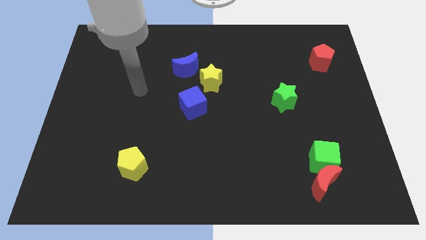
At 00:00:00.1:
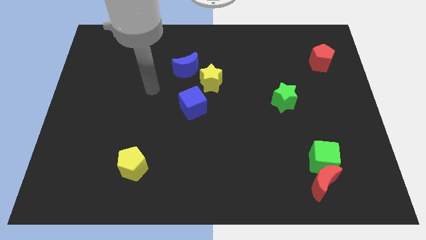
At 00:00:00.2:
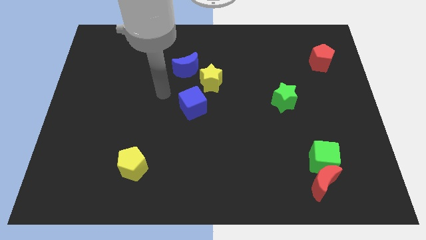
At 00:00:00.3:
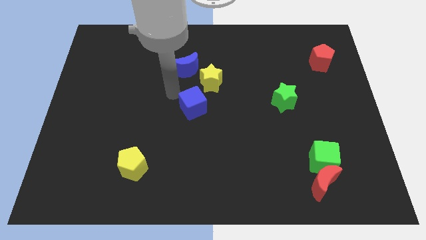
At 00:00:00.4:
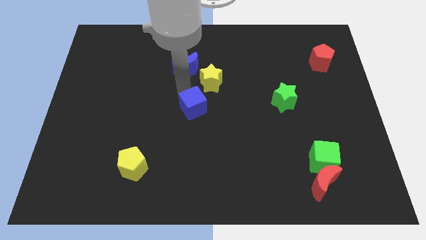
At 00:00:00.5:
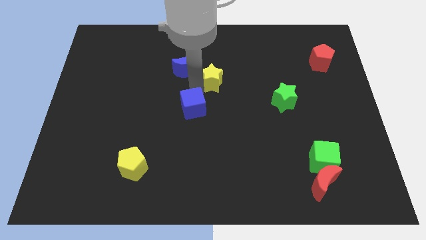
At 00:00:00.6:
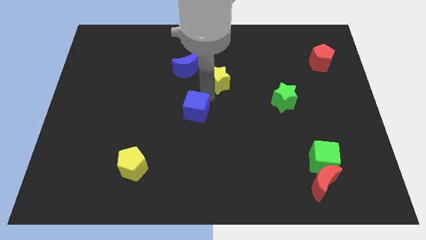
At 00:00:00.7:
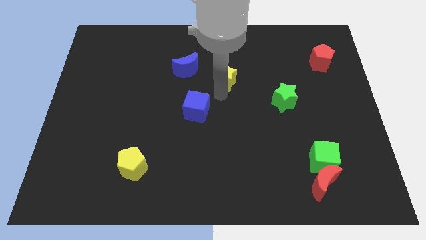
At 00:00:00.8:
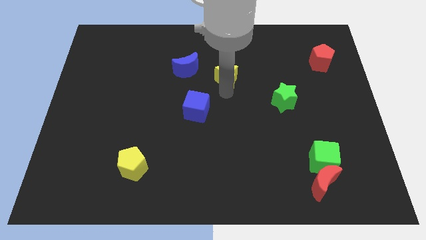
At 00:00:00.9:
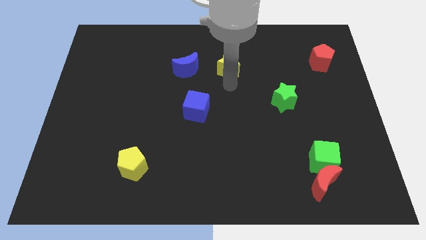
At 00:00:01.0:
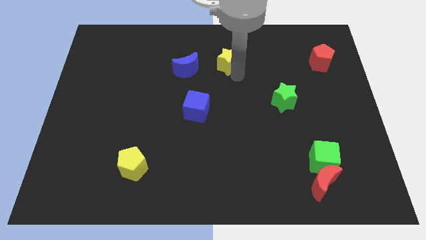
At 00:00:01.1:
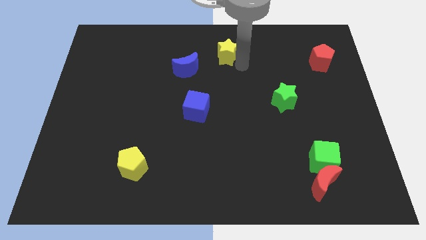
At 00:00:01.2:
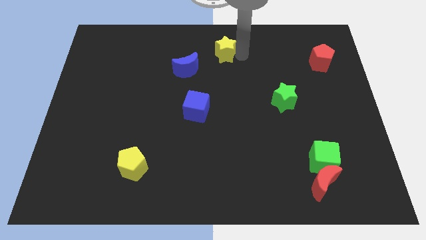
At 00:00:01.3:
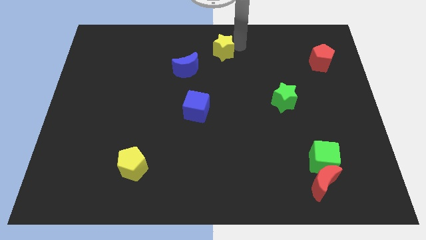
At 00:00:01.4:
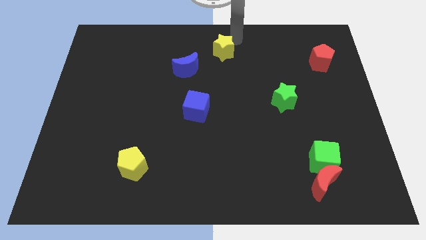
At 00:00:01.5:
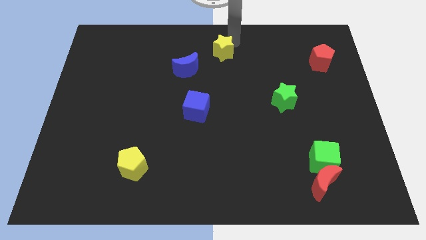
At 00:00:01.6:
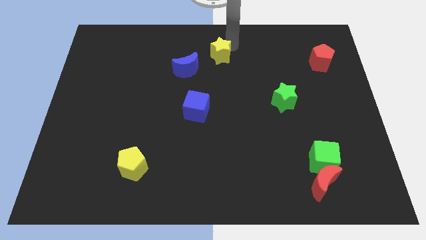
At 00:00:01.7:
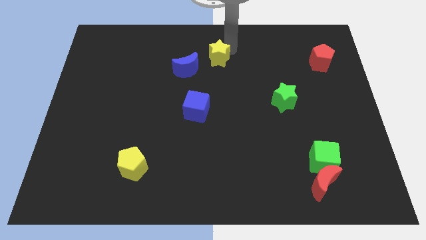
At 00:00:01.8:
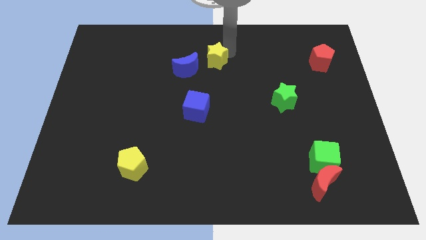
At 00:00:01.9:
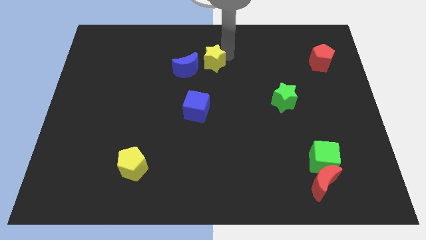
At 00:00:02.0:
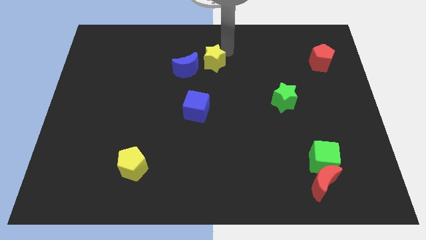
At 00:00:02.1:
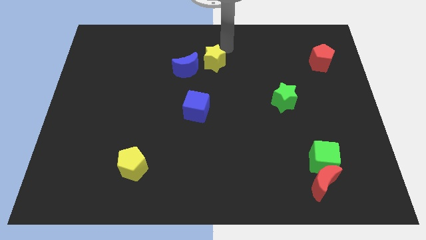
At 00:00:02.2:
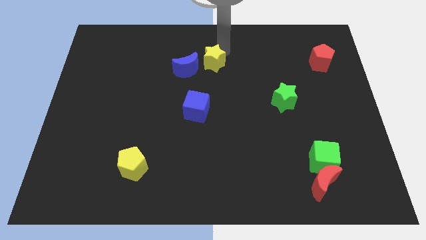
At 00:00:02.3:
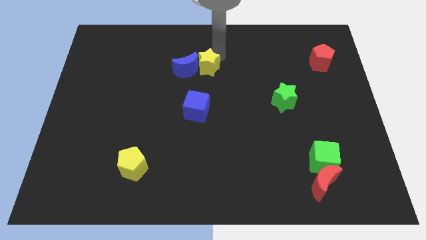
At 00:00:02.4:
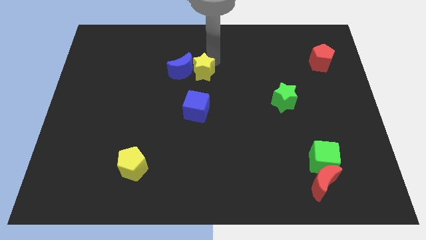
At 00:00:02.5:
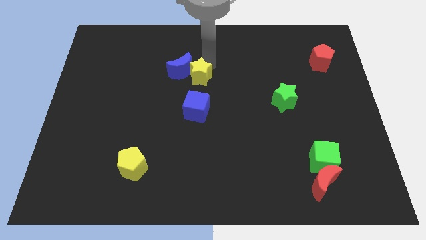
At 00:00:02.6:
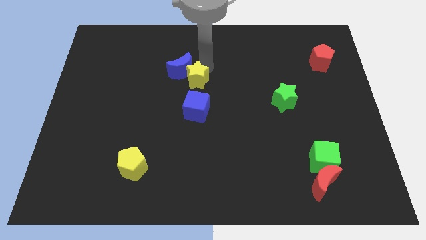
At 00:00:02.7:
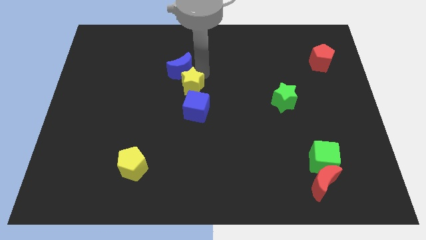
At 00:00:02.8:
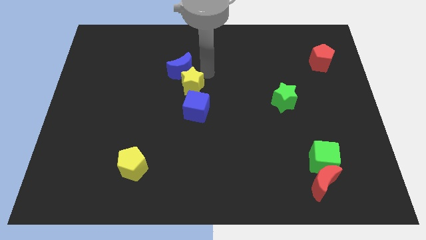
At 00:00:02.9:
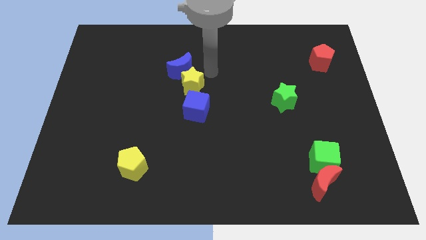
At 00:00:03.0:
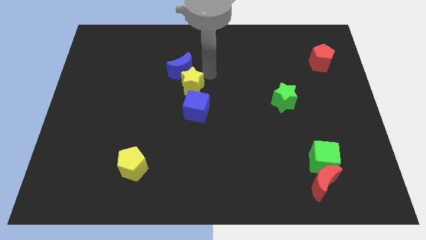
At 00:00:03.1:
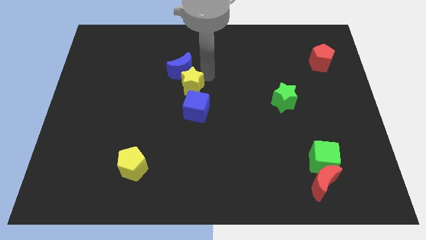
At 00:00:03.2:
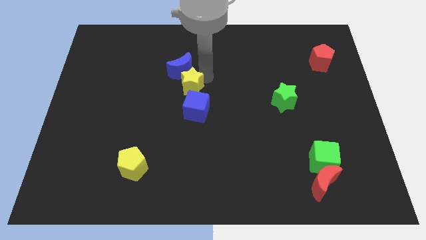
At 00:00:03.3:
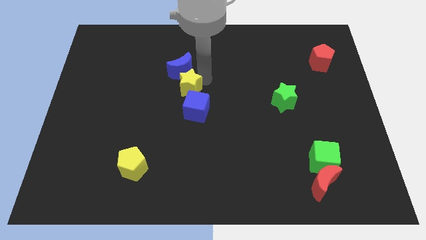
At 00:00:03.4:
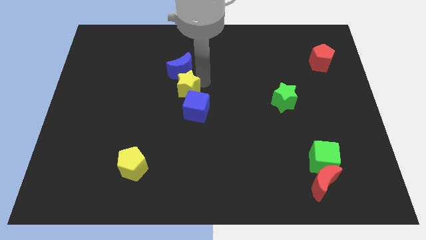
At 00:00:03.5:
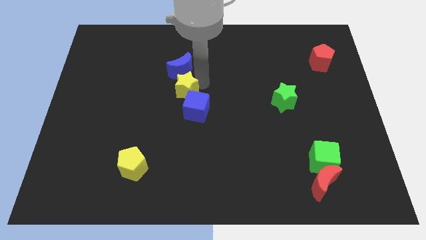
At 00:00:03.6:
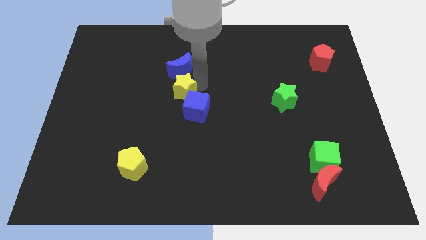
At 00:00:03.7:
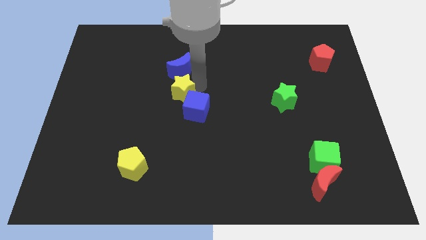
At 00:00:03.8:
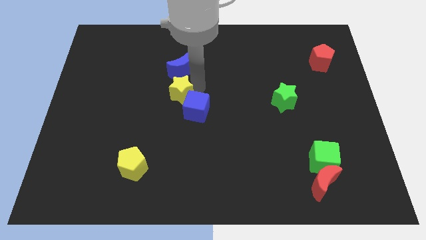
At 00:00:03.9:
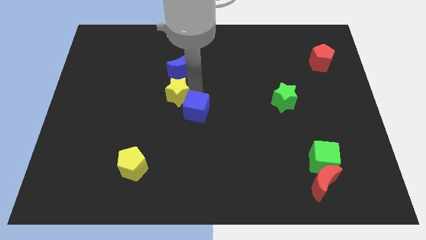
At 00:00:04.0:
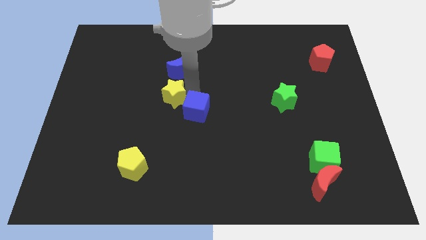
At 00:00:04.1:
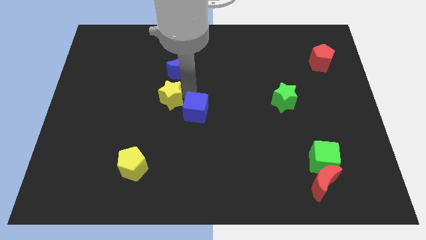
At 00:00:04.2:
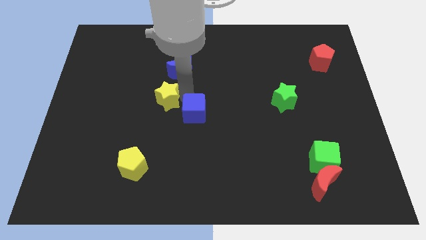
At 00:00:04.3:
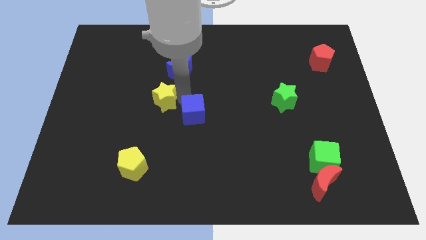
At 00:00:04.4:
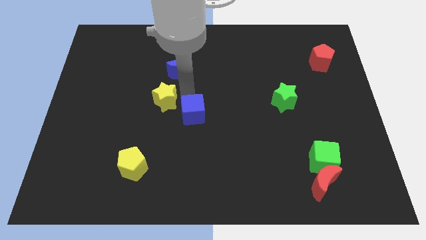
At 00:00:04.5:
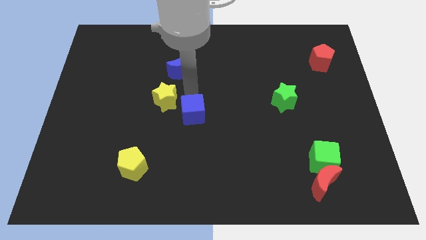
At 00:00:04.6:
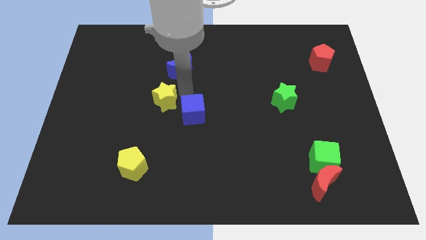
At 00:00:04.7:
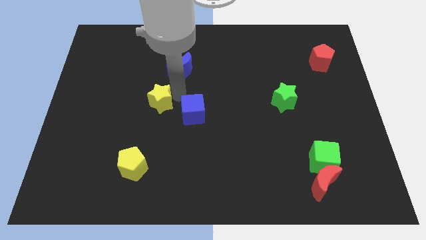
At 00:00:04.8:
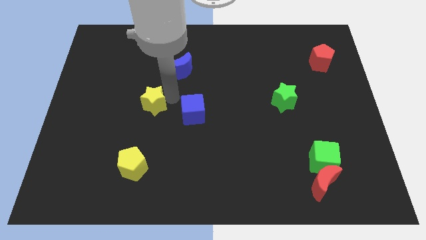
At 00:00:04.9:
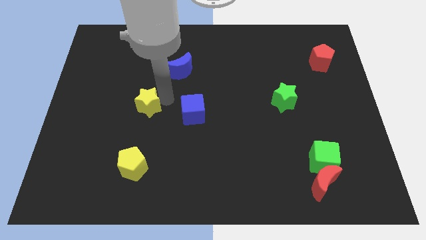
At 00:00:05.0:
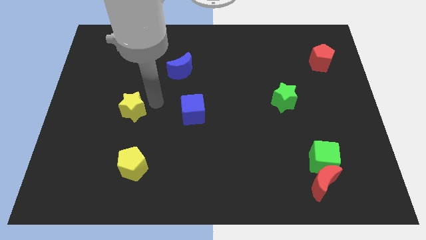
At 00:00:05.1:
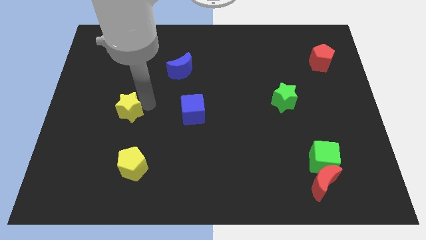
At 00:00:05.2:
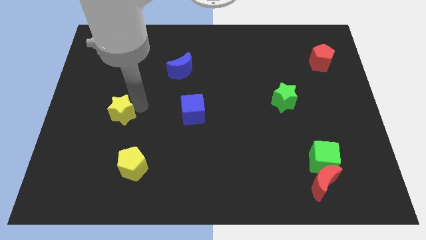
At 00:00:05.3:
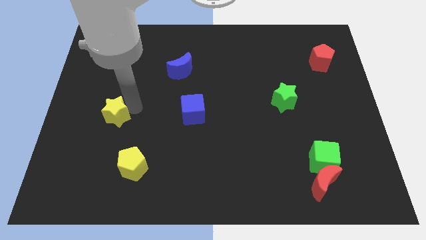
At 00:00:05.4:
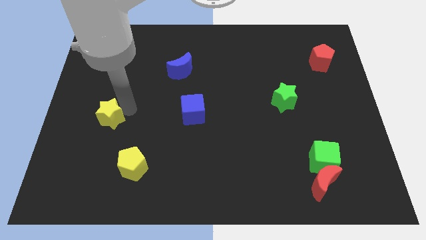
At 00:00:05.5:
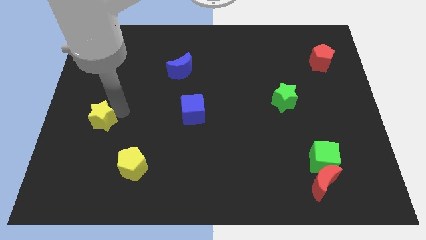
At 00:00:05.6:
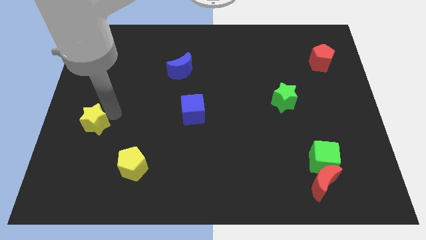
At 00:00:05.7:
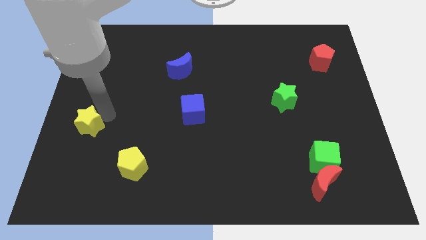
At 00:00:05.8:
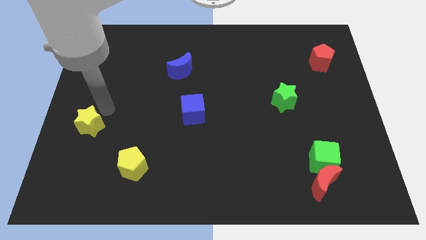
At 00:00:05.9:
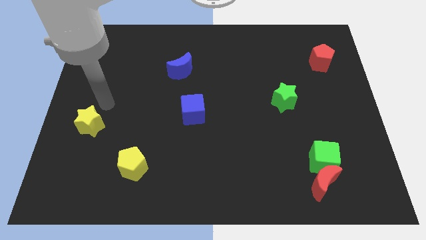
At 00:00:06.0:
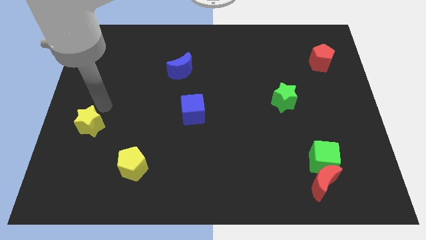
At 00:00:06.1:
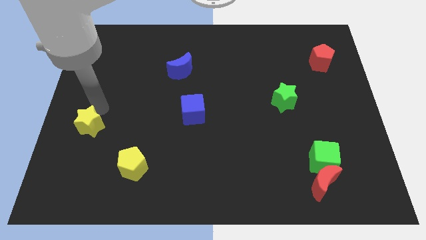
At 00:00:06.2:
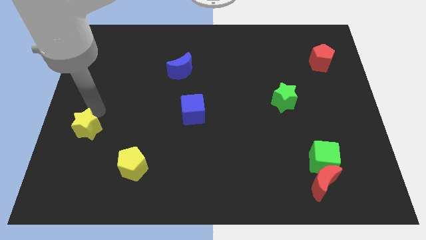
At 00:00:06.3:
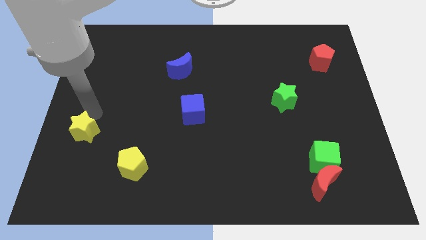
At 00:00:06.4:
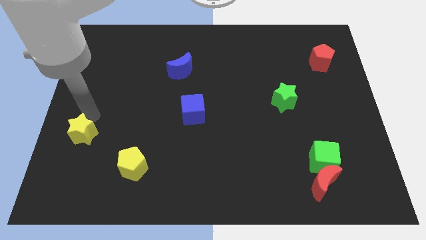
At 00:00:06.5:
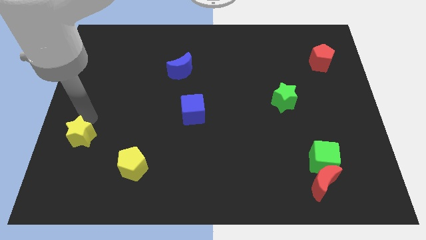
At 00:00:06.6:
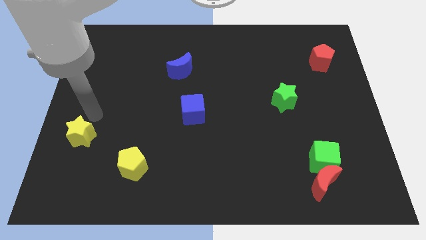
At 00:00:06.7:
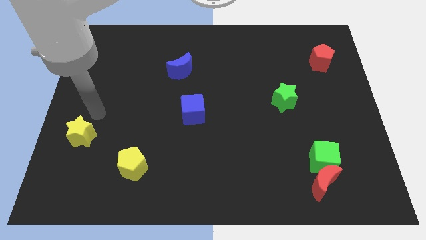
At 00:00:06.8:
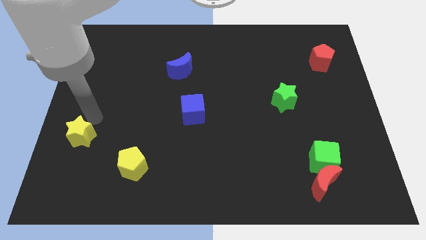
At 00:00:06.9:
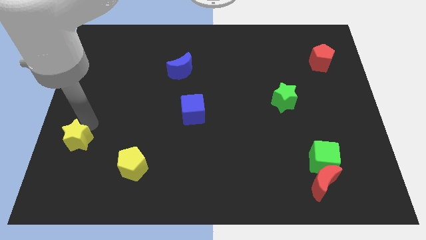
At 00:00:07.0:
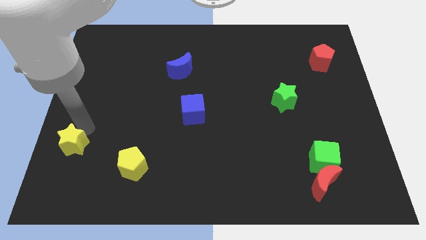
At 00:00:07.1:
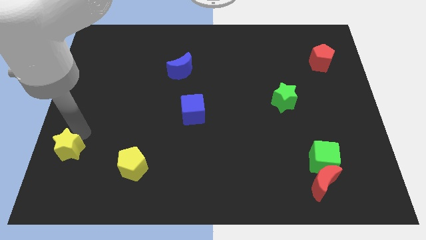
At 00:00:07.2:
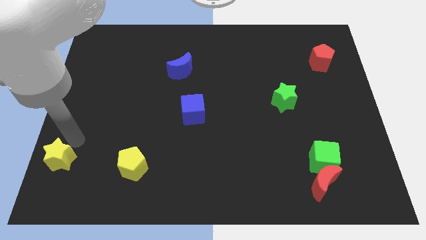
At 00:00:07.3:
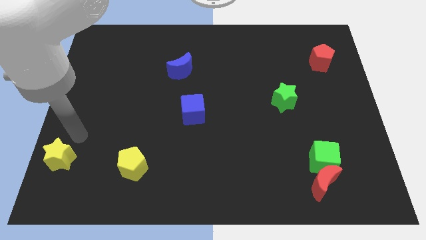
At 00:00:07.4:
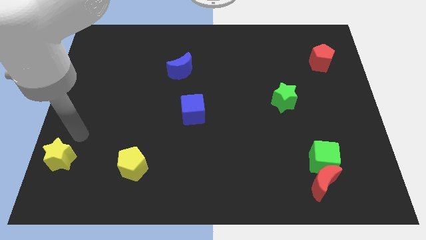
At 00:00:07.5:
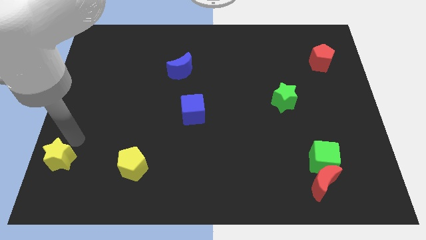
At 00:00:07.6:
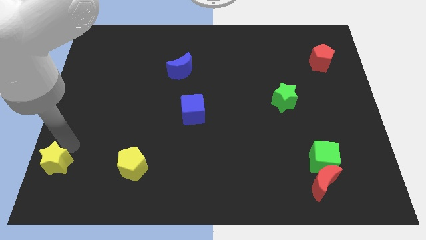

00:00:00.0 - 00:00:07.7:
move the yellow star to the bottom left
